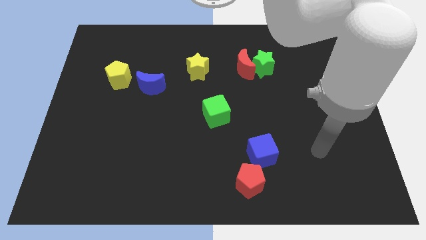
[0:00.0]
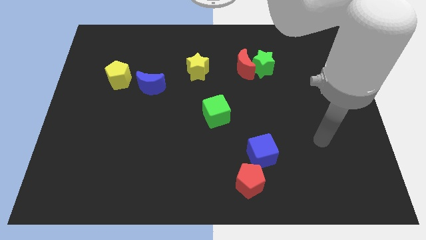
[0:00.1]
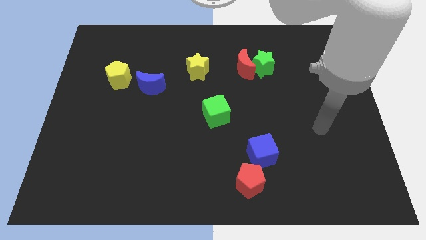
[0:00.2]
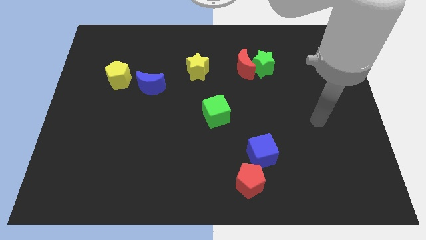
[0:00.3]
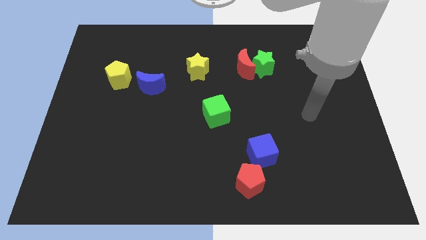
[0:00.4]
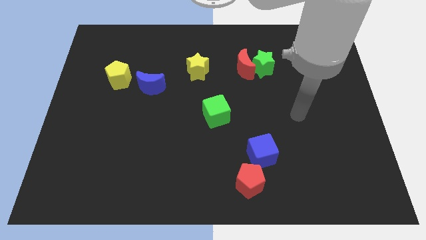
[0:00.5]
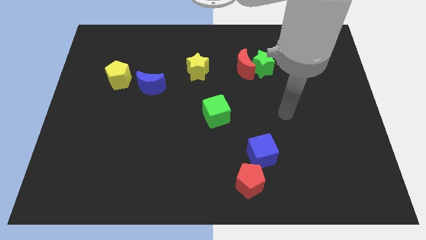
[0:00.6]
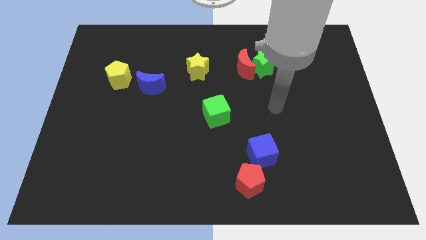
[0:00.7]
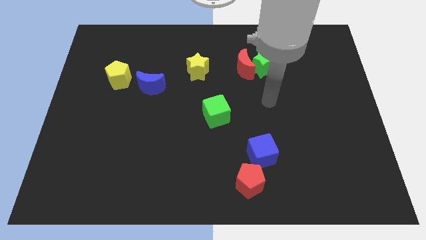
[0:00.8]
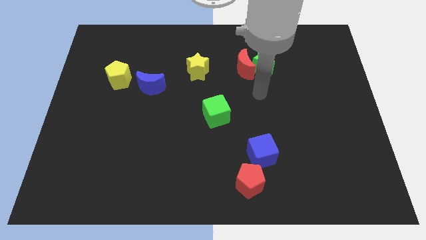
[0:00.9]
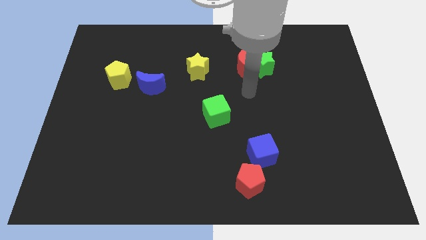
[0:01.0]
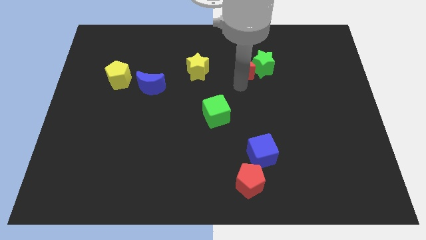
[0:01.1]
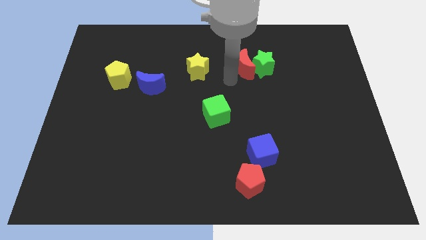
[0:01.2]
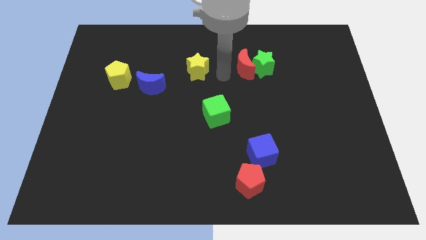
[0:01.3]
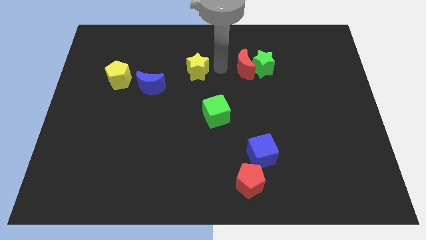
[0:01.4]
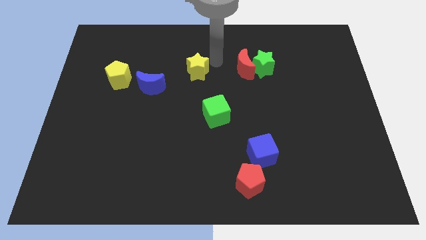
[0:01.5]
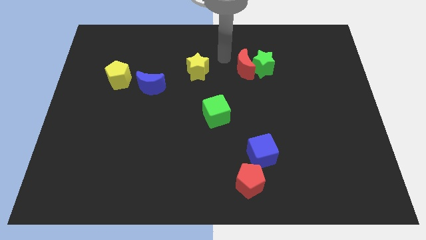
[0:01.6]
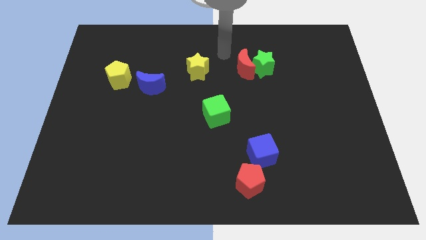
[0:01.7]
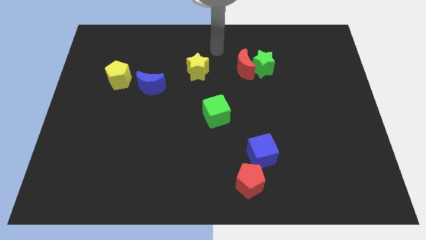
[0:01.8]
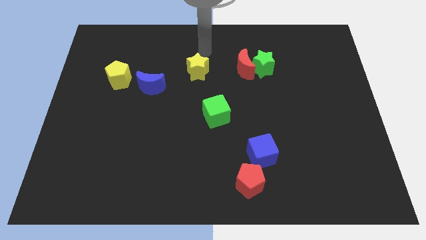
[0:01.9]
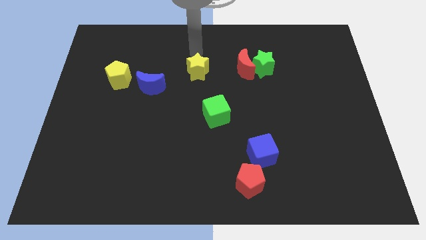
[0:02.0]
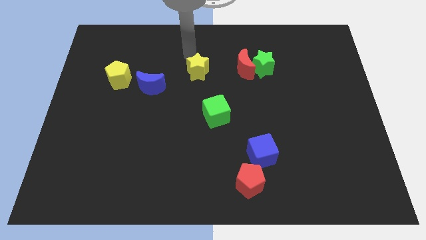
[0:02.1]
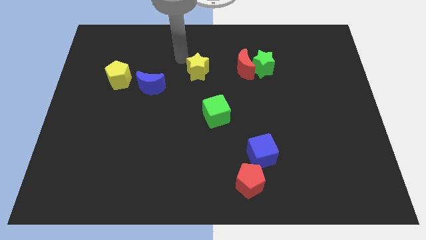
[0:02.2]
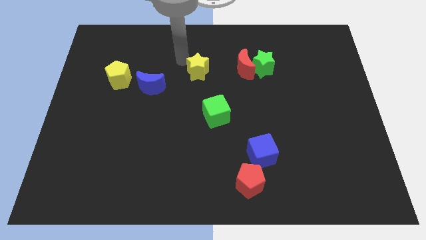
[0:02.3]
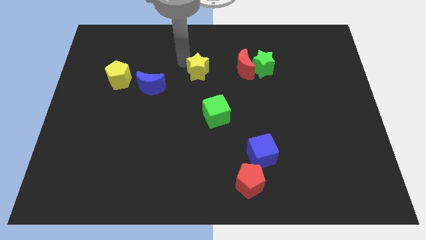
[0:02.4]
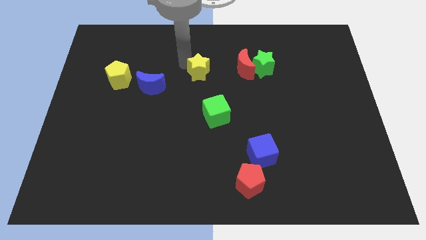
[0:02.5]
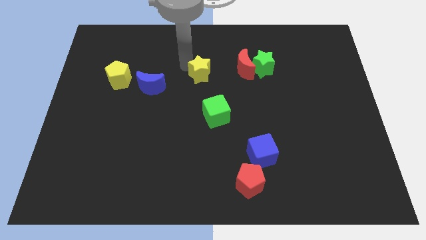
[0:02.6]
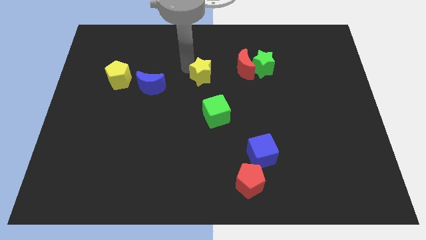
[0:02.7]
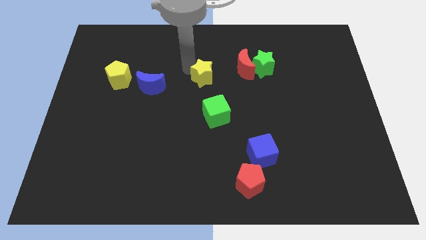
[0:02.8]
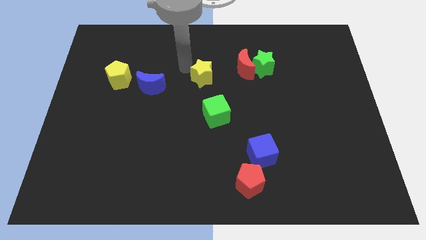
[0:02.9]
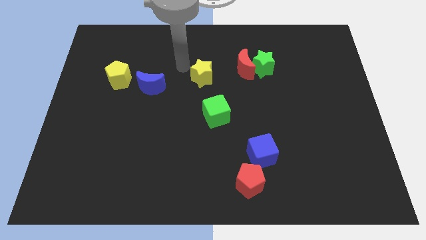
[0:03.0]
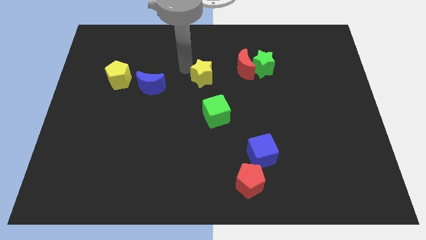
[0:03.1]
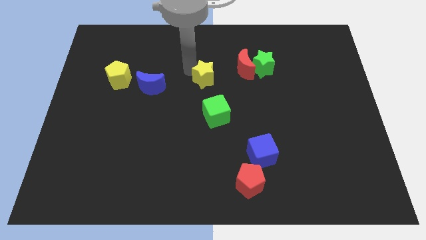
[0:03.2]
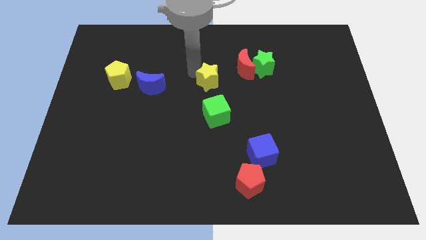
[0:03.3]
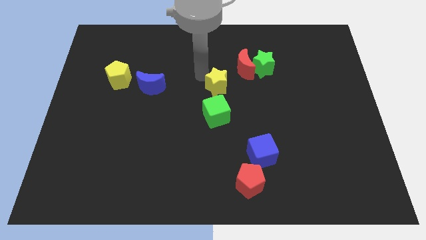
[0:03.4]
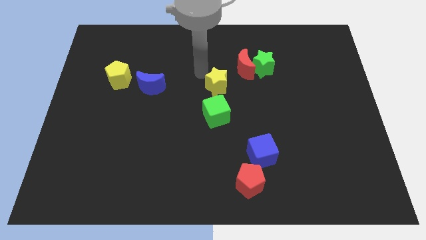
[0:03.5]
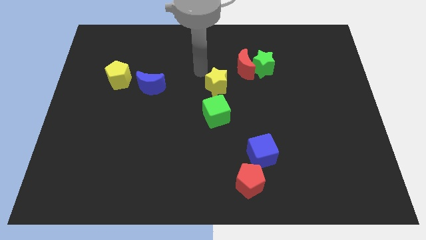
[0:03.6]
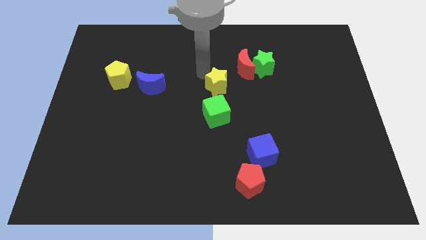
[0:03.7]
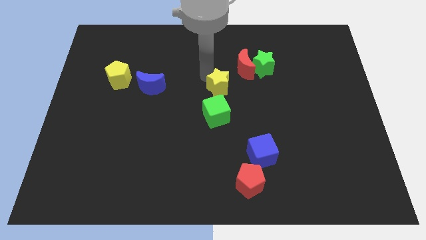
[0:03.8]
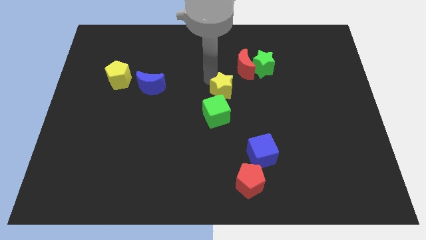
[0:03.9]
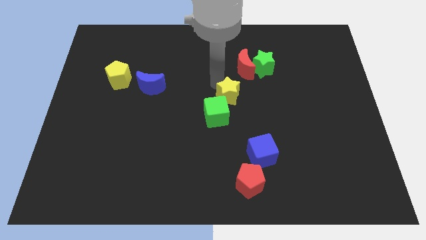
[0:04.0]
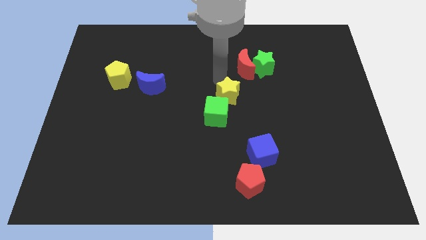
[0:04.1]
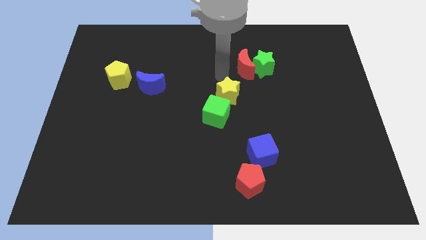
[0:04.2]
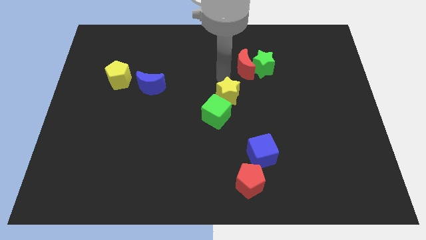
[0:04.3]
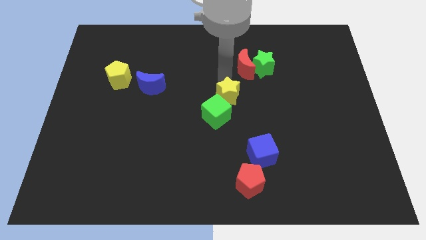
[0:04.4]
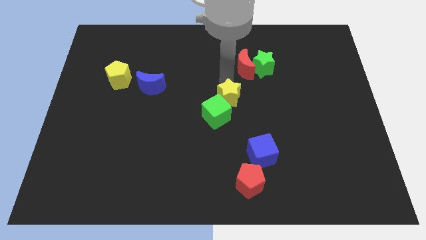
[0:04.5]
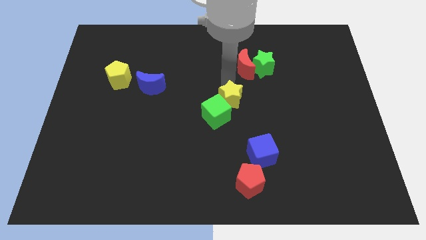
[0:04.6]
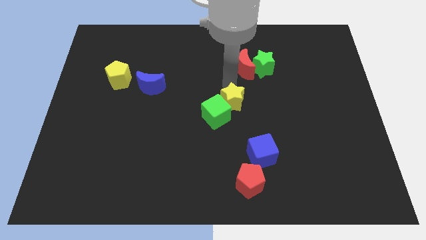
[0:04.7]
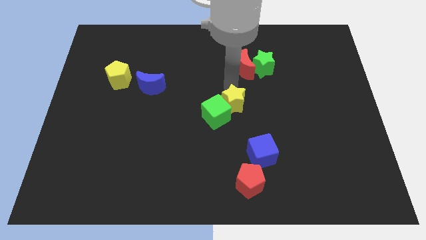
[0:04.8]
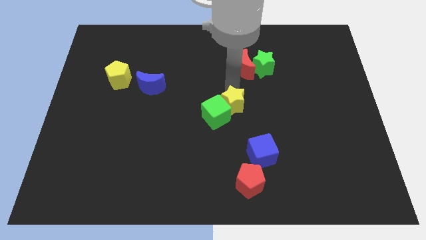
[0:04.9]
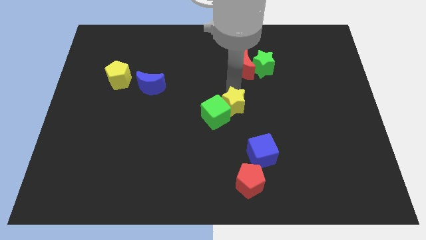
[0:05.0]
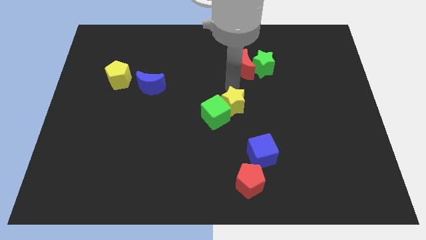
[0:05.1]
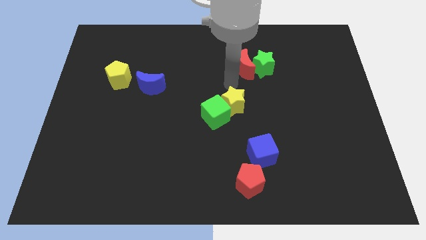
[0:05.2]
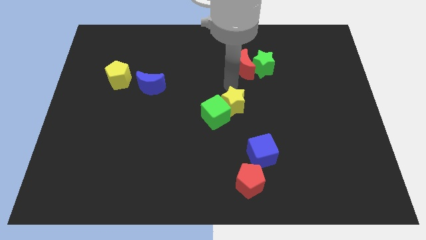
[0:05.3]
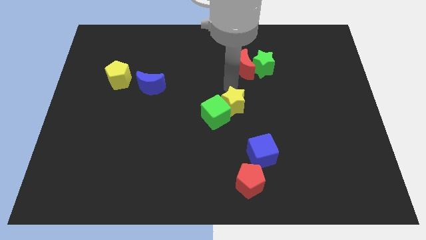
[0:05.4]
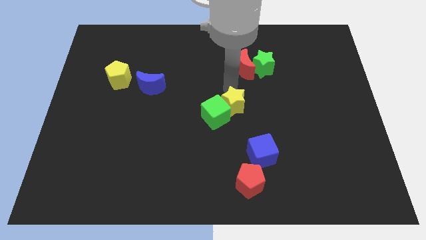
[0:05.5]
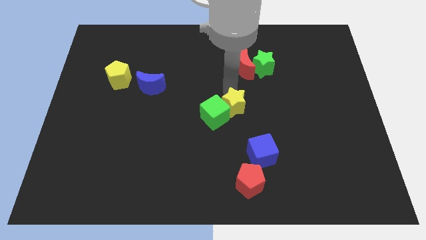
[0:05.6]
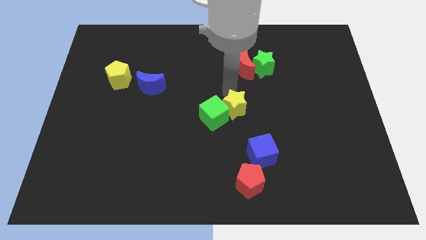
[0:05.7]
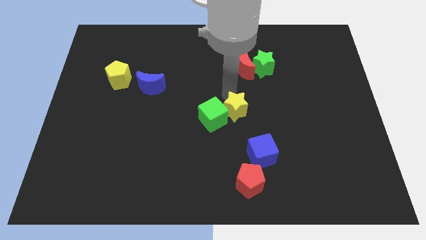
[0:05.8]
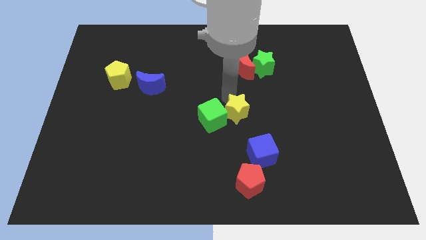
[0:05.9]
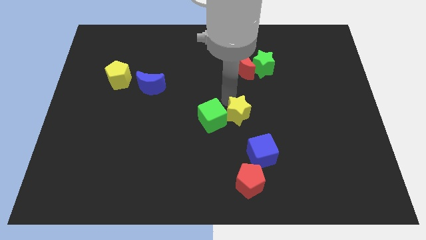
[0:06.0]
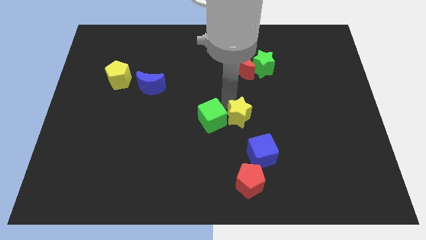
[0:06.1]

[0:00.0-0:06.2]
move the yellow star to the bottom right of the green cube
